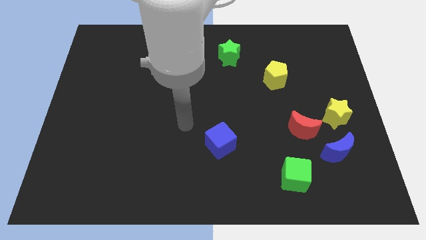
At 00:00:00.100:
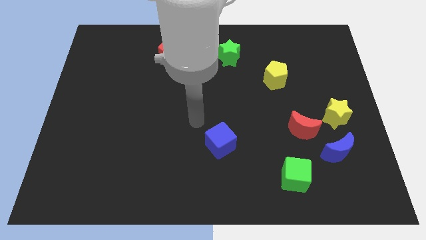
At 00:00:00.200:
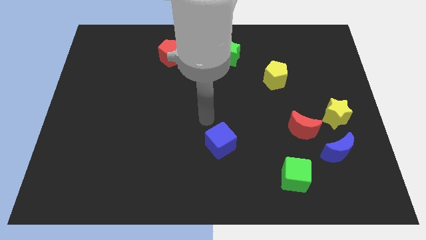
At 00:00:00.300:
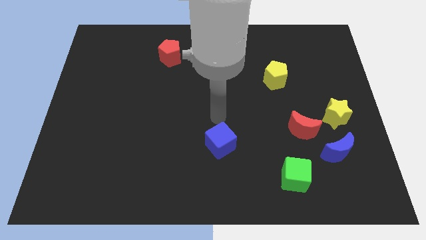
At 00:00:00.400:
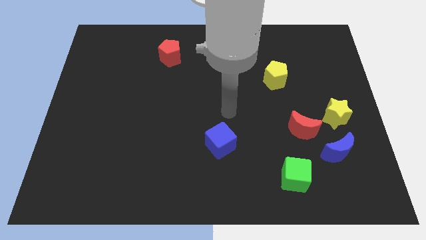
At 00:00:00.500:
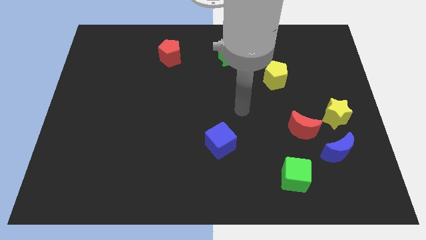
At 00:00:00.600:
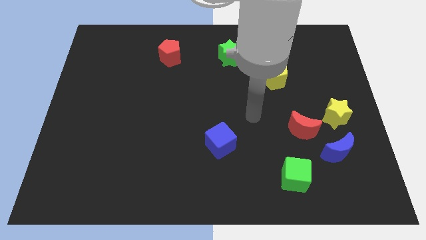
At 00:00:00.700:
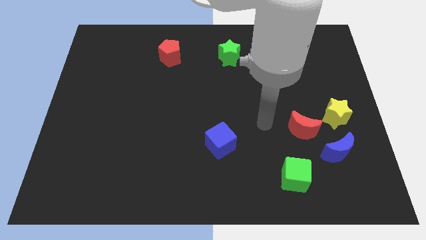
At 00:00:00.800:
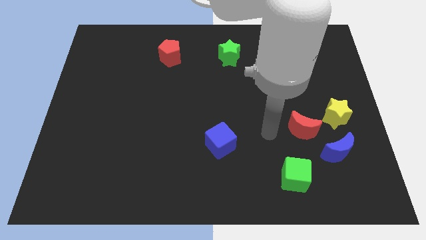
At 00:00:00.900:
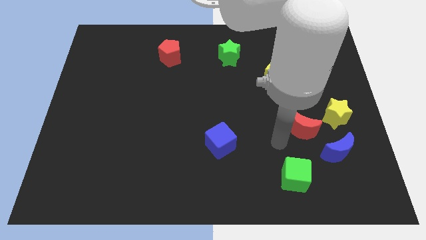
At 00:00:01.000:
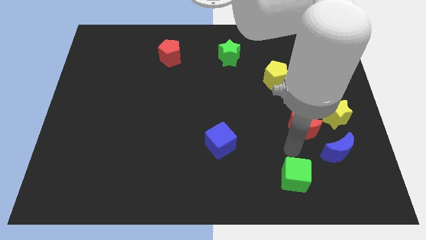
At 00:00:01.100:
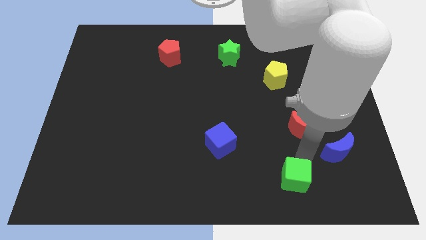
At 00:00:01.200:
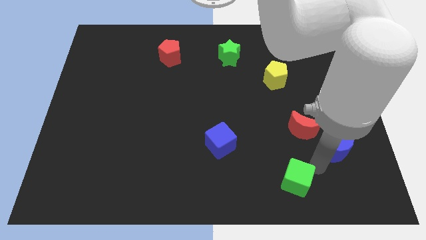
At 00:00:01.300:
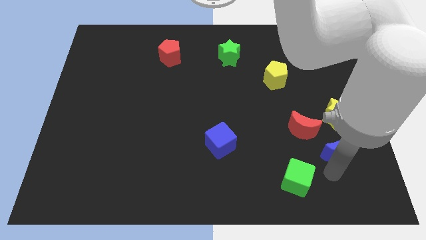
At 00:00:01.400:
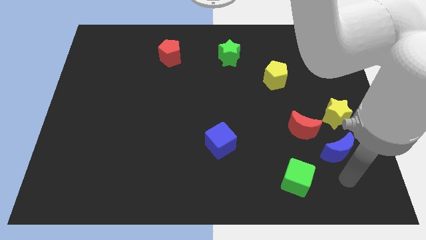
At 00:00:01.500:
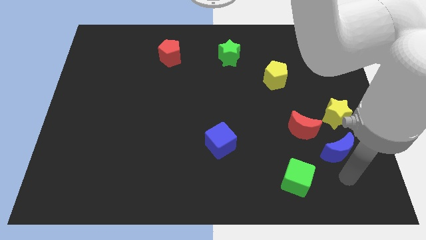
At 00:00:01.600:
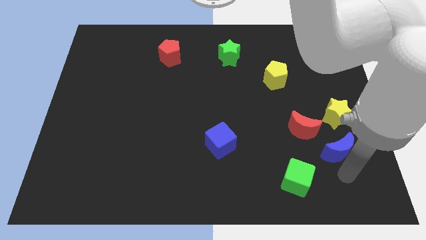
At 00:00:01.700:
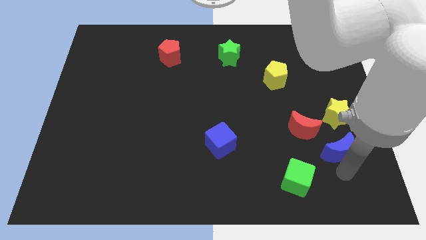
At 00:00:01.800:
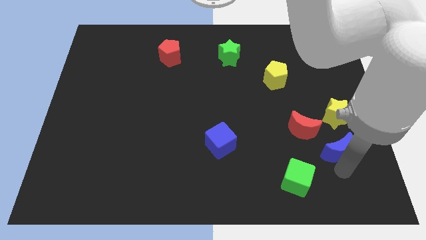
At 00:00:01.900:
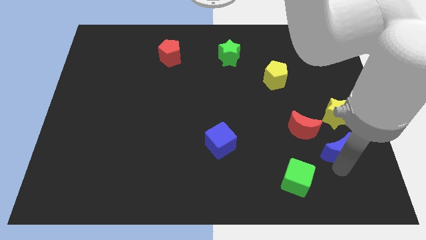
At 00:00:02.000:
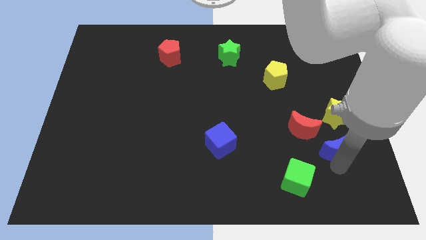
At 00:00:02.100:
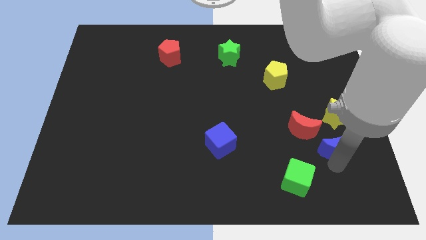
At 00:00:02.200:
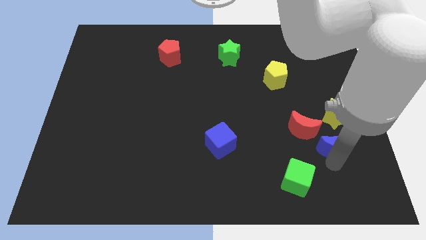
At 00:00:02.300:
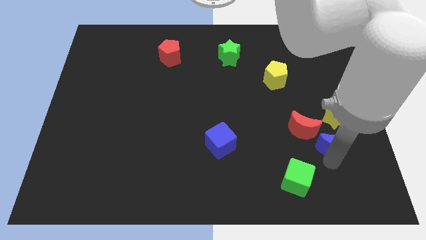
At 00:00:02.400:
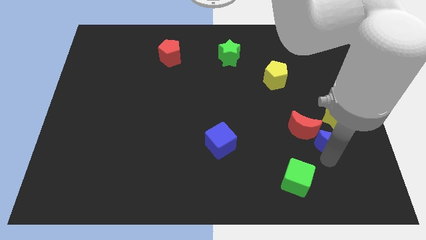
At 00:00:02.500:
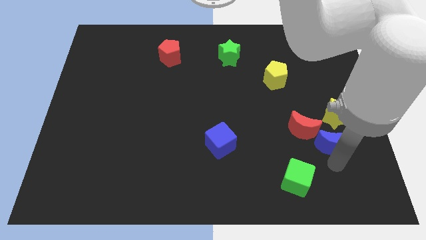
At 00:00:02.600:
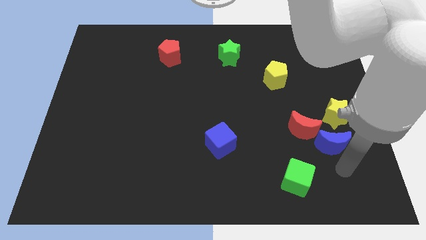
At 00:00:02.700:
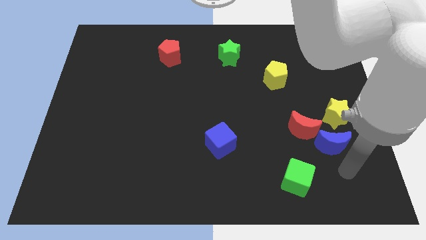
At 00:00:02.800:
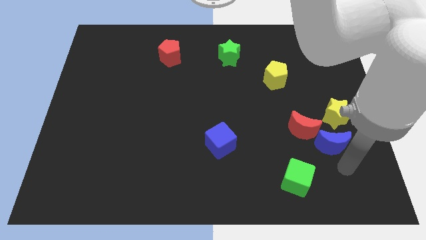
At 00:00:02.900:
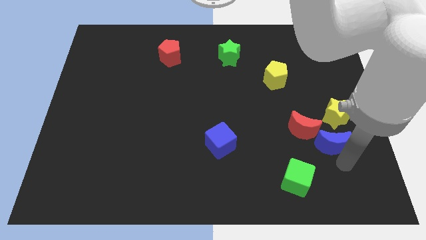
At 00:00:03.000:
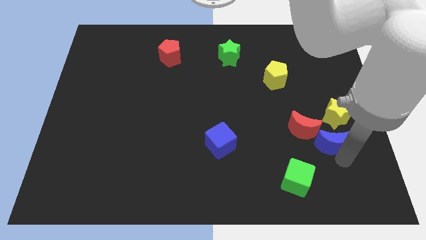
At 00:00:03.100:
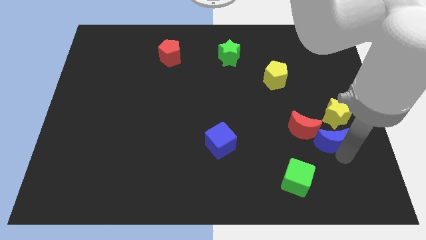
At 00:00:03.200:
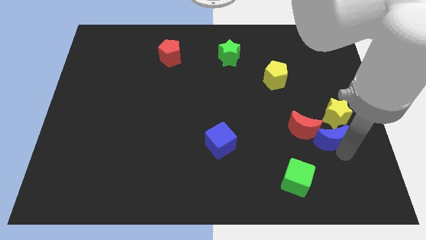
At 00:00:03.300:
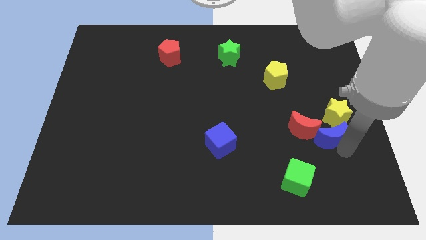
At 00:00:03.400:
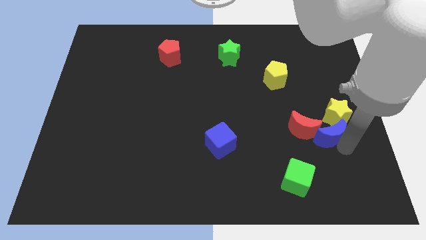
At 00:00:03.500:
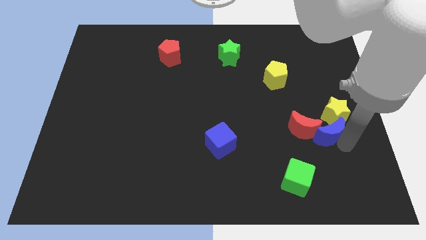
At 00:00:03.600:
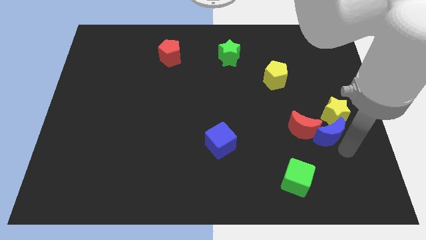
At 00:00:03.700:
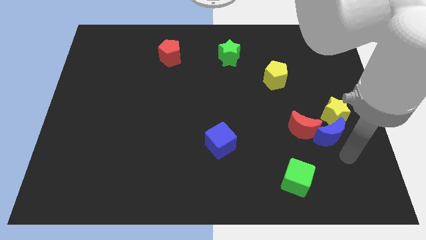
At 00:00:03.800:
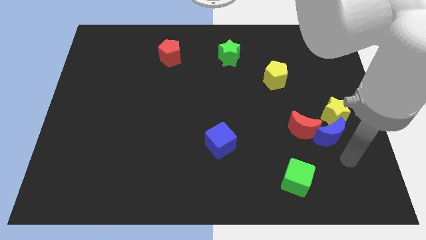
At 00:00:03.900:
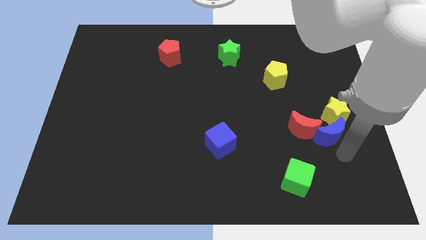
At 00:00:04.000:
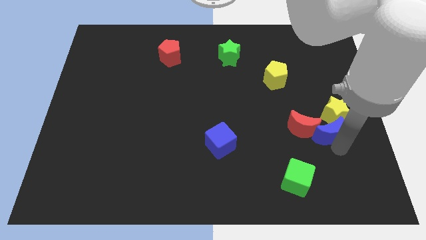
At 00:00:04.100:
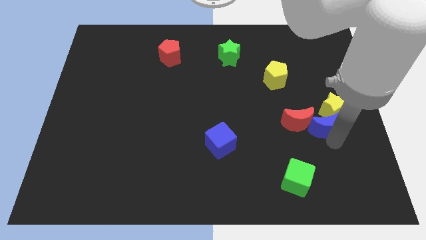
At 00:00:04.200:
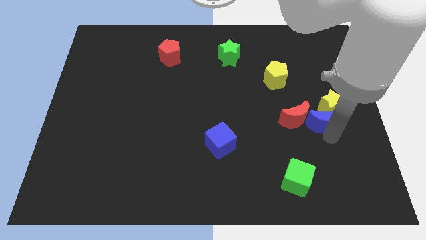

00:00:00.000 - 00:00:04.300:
slightly slide the blue moon upwards

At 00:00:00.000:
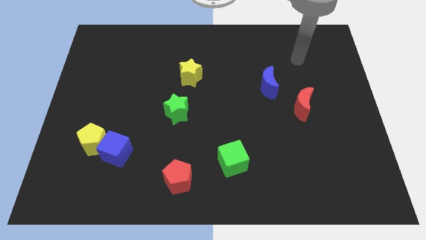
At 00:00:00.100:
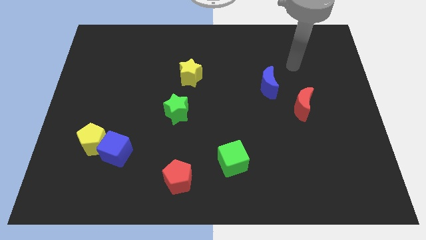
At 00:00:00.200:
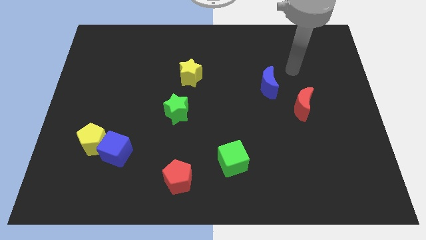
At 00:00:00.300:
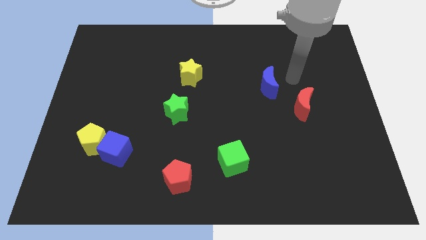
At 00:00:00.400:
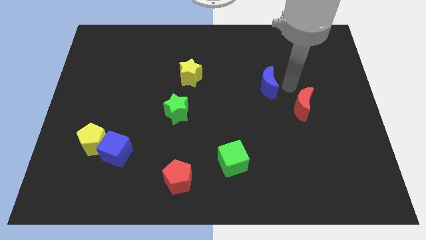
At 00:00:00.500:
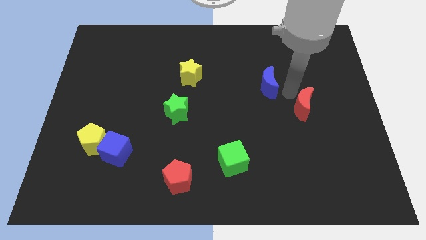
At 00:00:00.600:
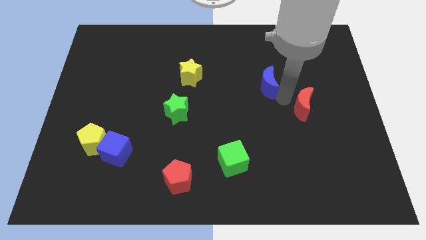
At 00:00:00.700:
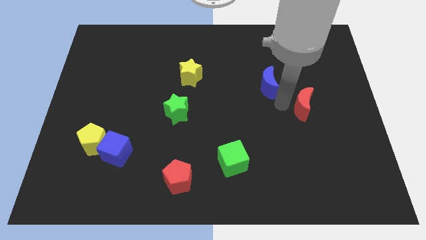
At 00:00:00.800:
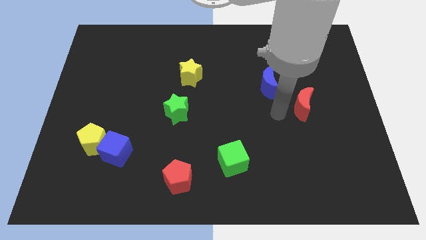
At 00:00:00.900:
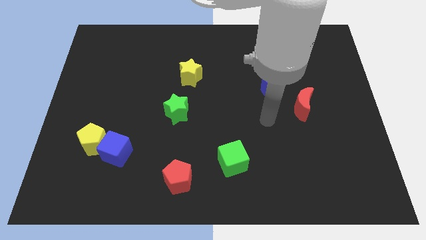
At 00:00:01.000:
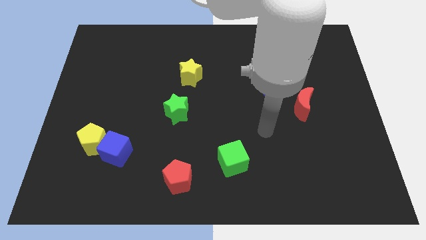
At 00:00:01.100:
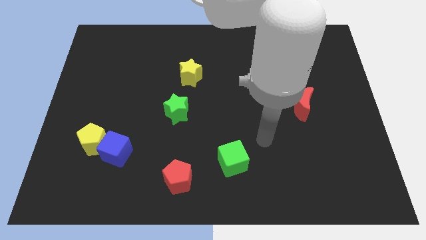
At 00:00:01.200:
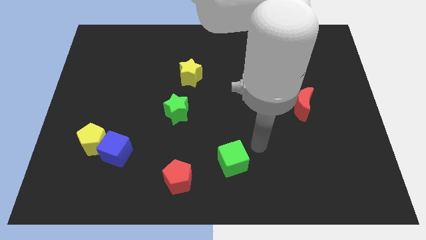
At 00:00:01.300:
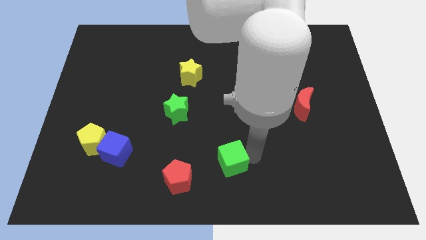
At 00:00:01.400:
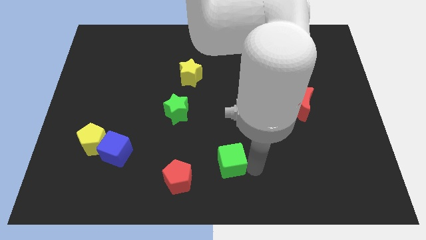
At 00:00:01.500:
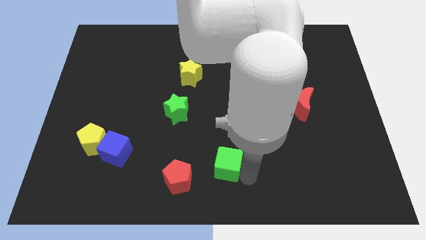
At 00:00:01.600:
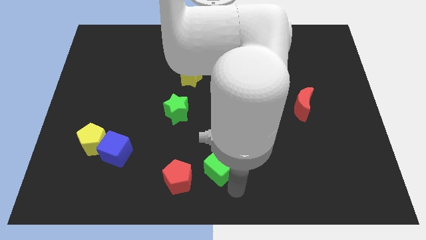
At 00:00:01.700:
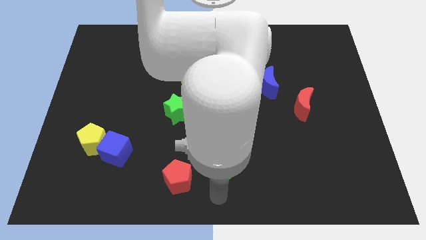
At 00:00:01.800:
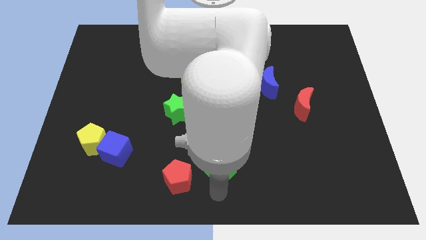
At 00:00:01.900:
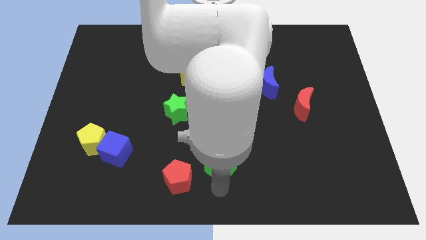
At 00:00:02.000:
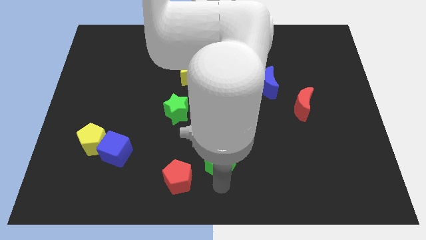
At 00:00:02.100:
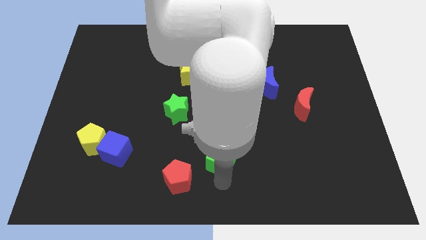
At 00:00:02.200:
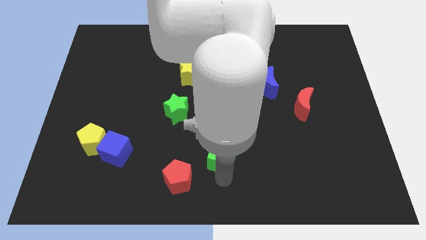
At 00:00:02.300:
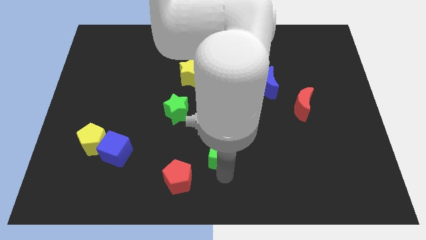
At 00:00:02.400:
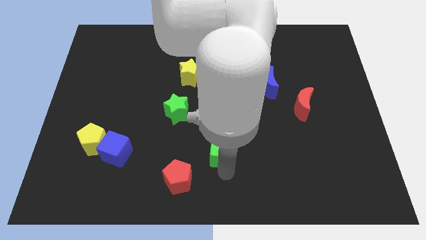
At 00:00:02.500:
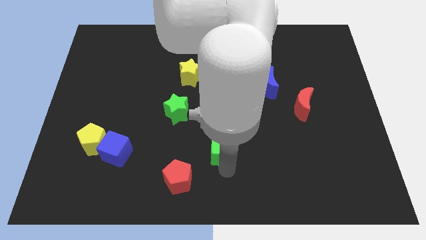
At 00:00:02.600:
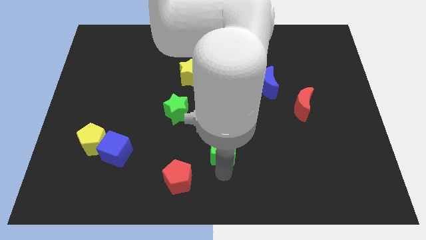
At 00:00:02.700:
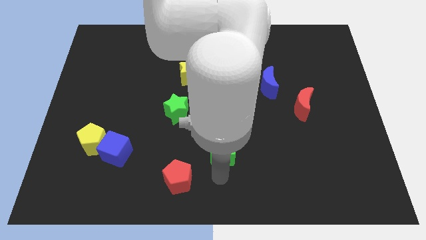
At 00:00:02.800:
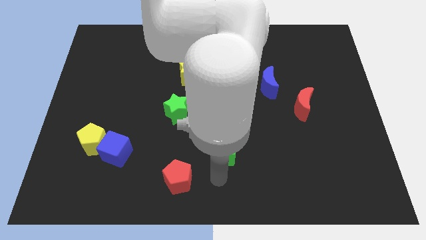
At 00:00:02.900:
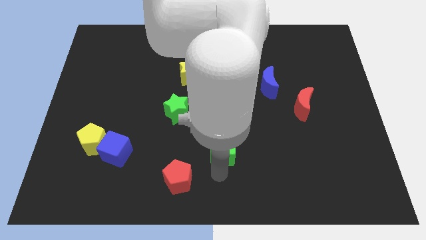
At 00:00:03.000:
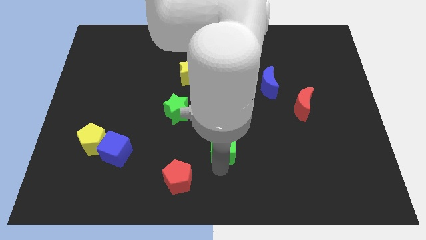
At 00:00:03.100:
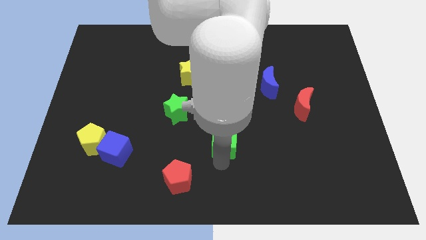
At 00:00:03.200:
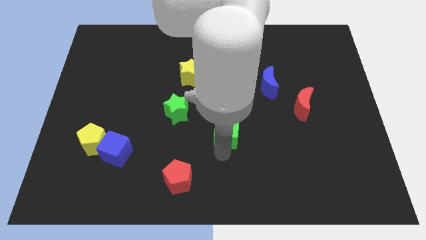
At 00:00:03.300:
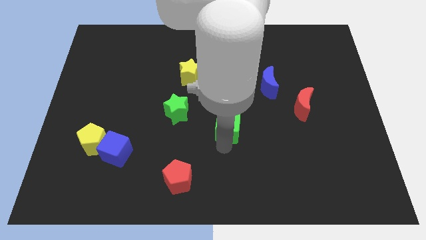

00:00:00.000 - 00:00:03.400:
slide the green cube a bit up

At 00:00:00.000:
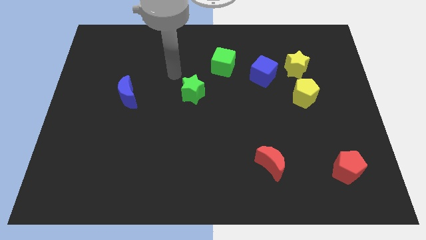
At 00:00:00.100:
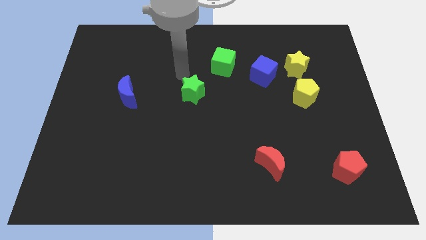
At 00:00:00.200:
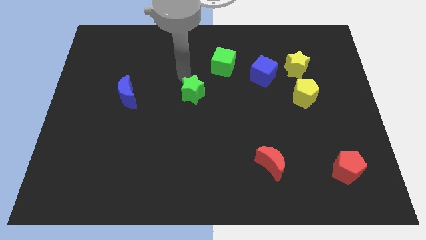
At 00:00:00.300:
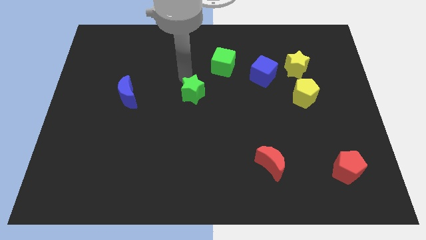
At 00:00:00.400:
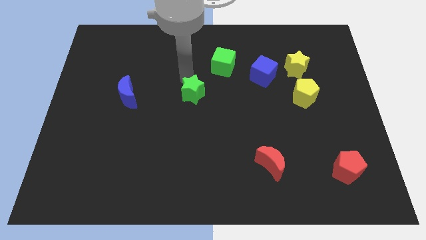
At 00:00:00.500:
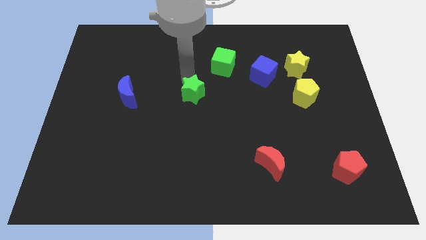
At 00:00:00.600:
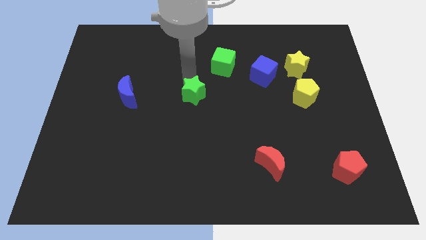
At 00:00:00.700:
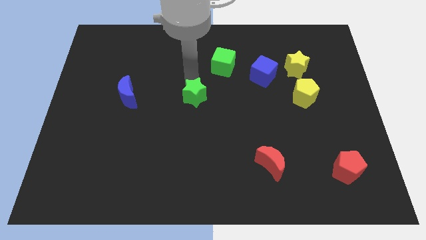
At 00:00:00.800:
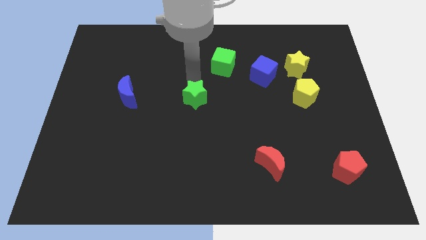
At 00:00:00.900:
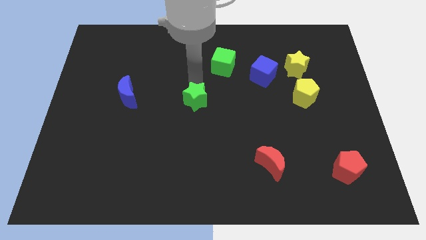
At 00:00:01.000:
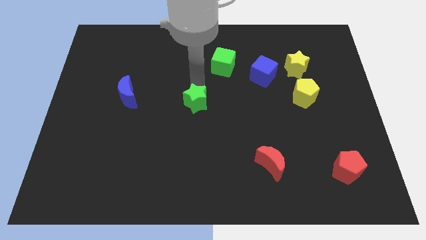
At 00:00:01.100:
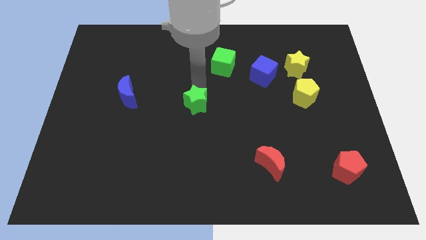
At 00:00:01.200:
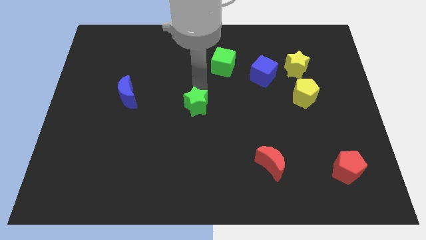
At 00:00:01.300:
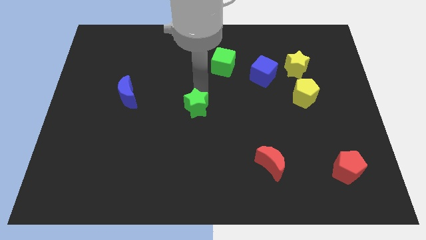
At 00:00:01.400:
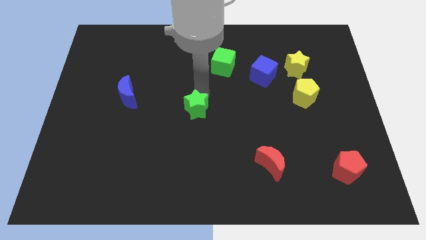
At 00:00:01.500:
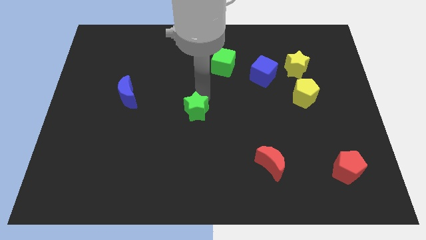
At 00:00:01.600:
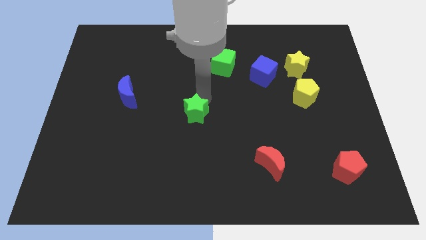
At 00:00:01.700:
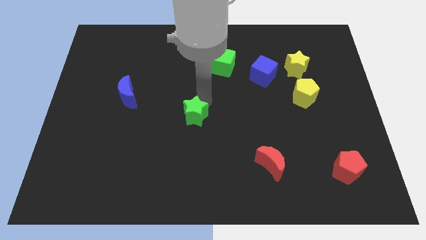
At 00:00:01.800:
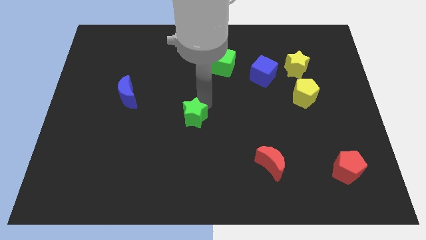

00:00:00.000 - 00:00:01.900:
slightly push the green star downwards
